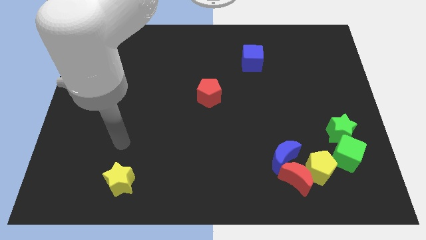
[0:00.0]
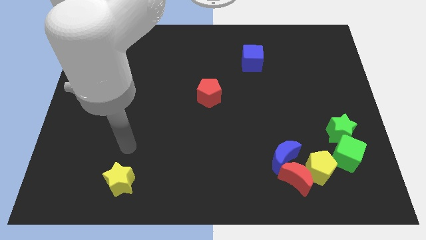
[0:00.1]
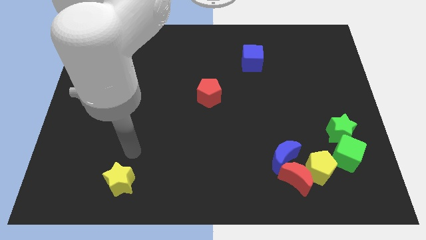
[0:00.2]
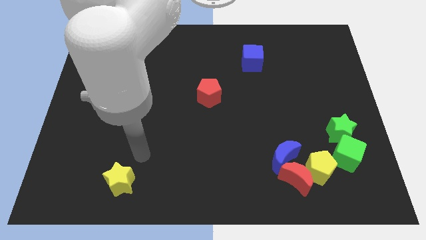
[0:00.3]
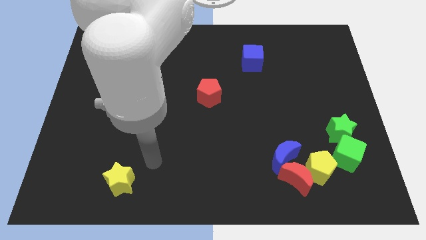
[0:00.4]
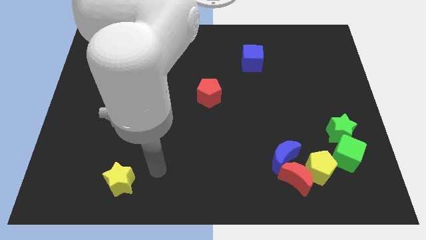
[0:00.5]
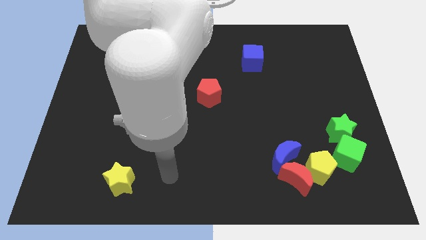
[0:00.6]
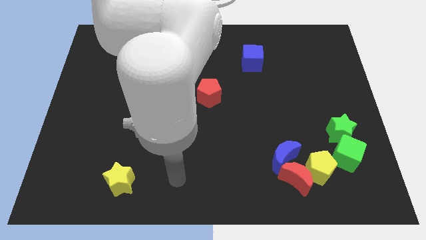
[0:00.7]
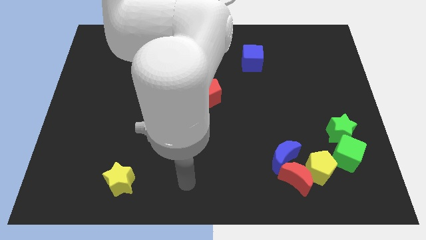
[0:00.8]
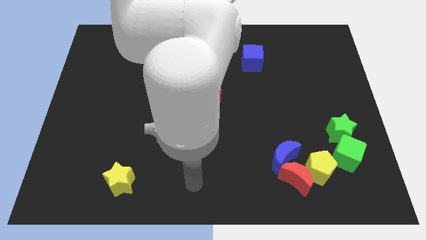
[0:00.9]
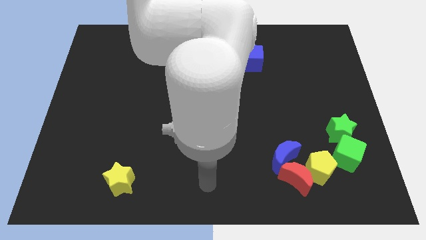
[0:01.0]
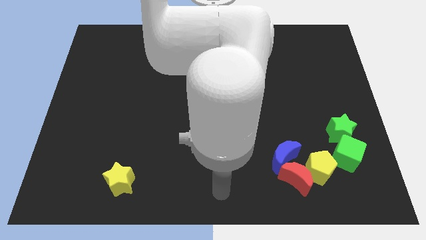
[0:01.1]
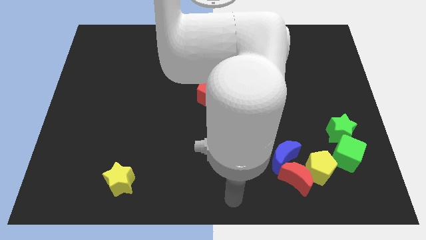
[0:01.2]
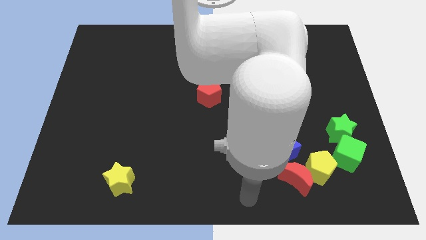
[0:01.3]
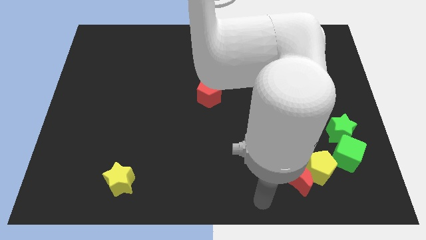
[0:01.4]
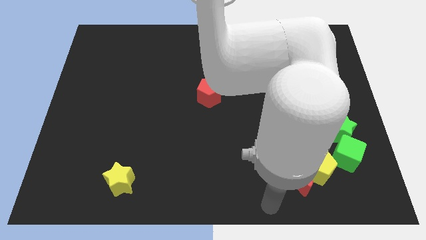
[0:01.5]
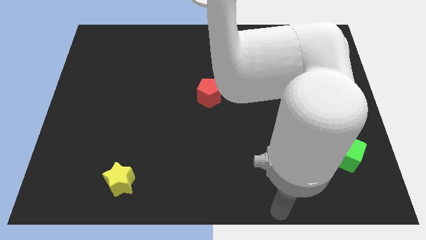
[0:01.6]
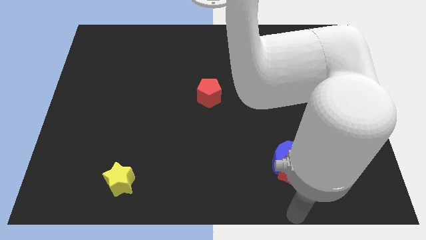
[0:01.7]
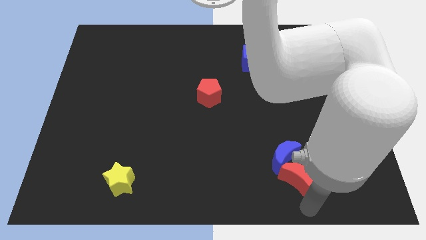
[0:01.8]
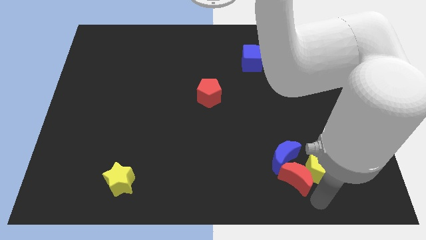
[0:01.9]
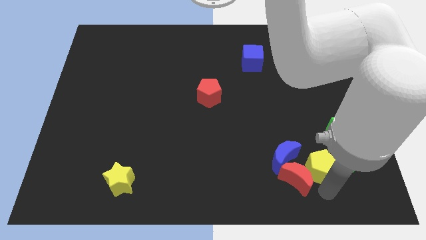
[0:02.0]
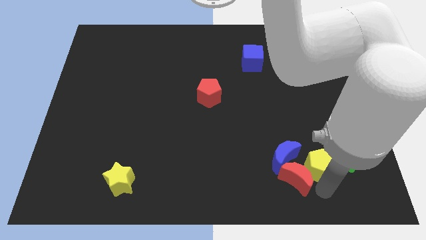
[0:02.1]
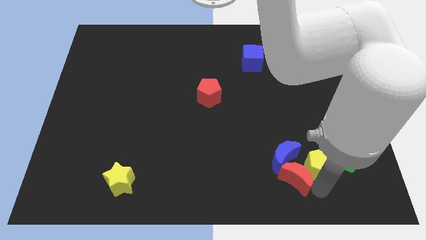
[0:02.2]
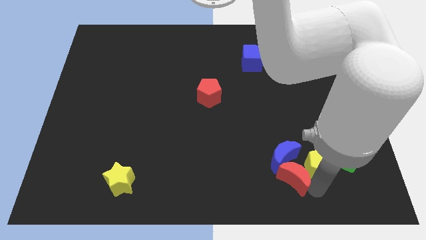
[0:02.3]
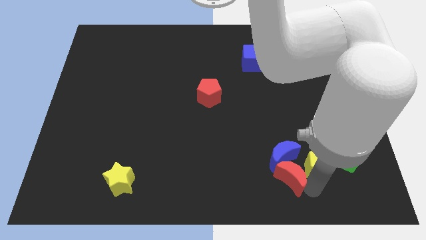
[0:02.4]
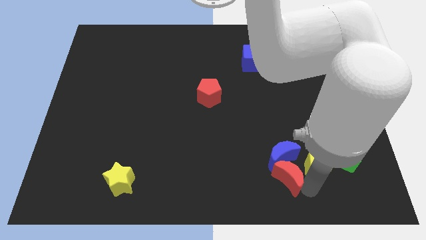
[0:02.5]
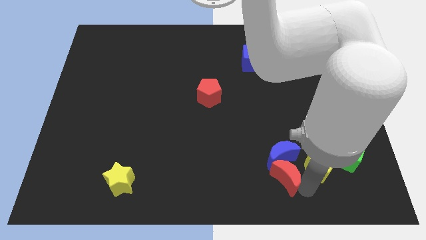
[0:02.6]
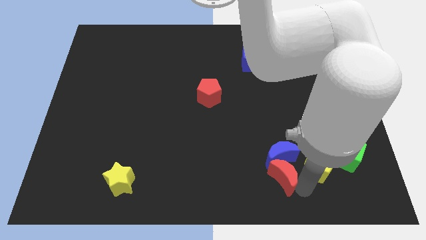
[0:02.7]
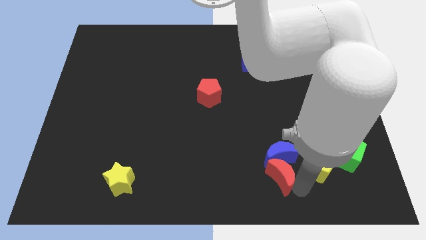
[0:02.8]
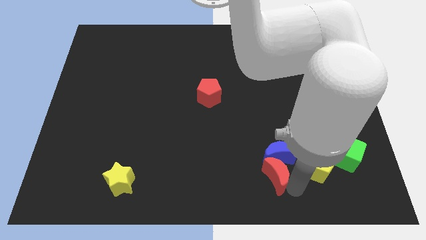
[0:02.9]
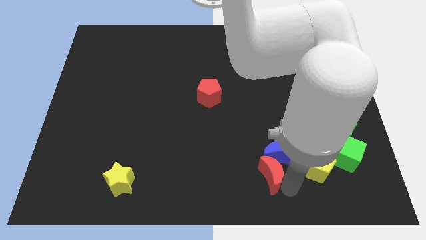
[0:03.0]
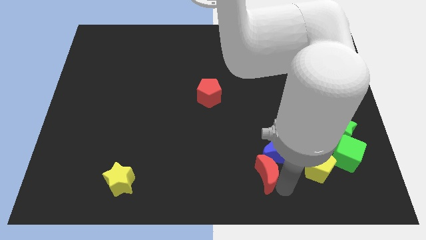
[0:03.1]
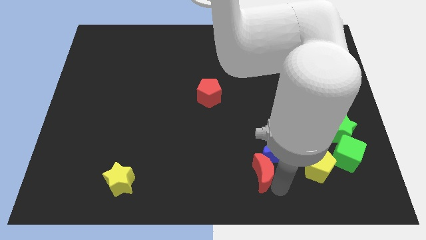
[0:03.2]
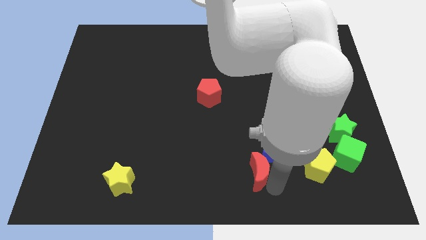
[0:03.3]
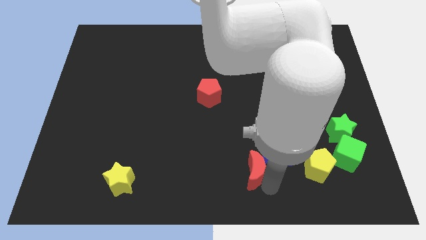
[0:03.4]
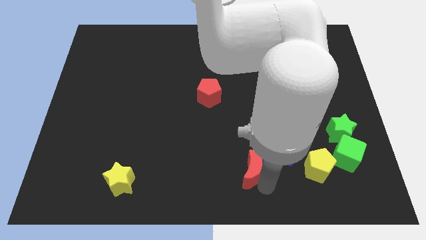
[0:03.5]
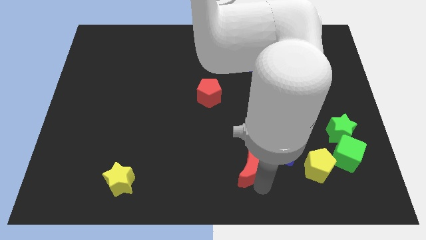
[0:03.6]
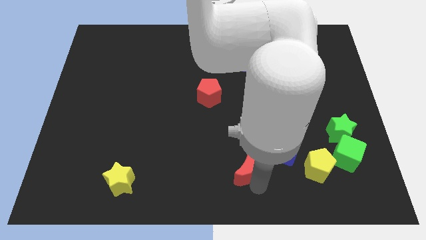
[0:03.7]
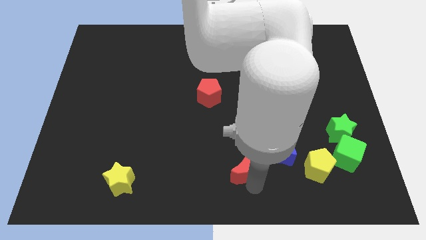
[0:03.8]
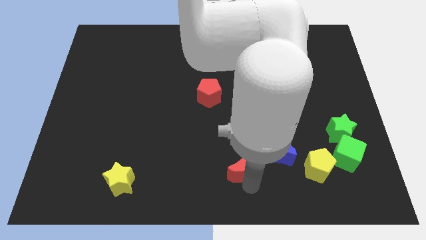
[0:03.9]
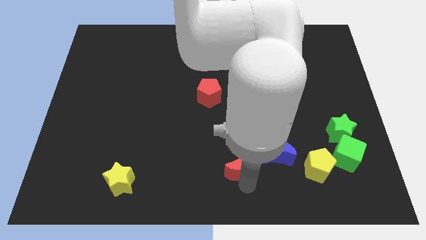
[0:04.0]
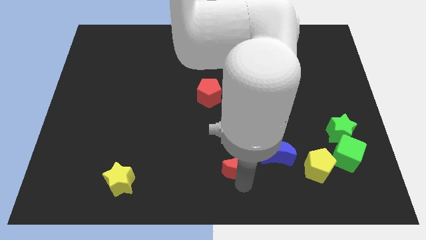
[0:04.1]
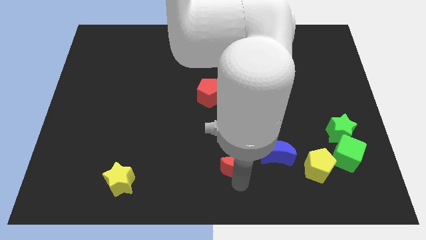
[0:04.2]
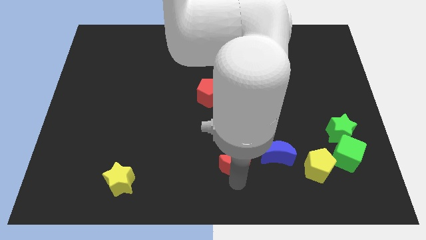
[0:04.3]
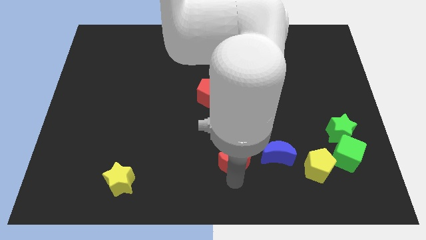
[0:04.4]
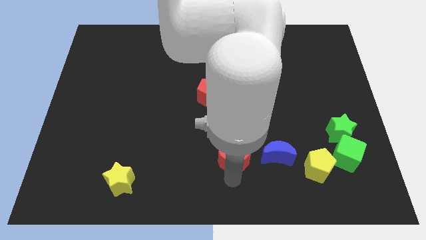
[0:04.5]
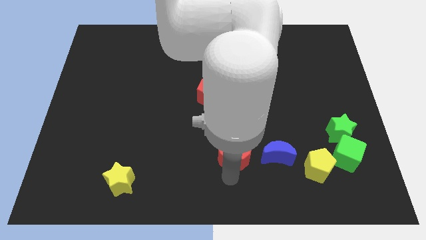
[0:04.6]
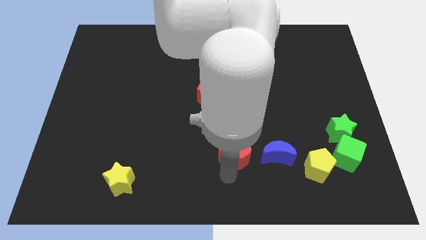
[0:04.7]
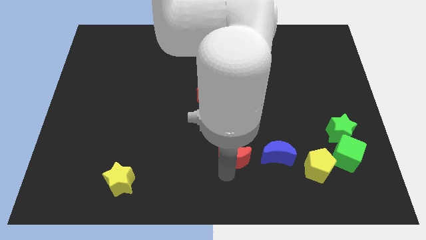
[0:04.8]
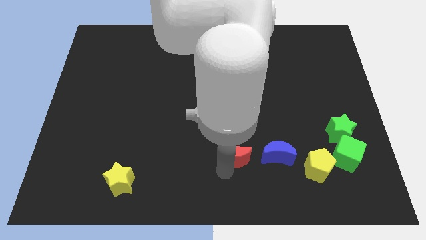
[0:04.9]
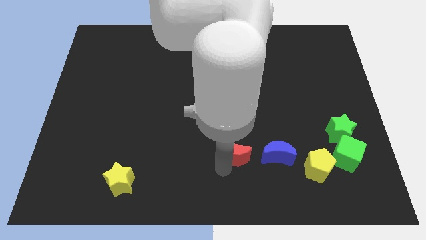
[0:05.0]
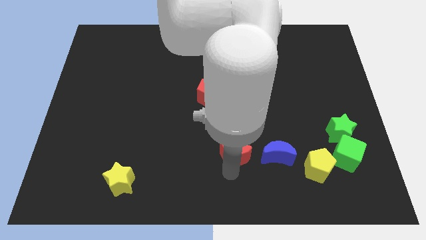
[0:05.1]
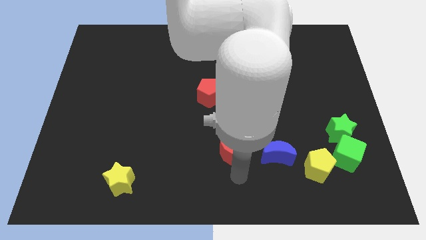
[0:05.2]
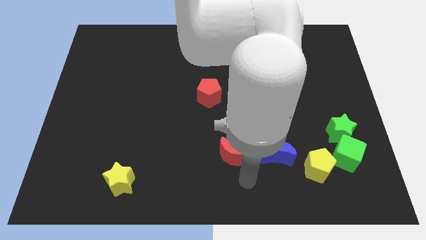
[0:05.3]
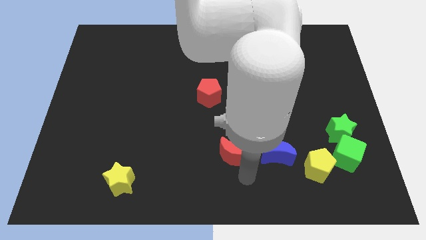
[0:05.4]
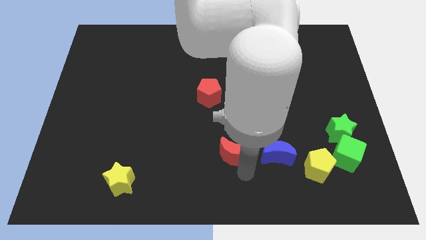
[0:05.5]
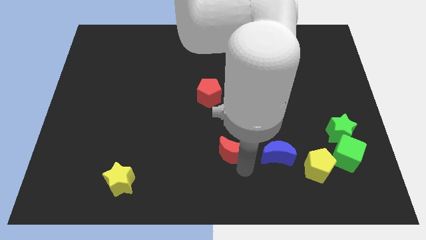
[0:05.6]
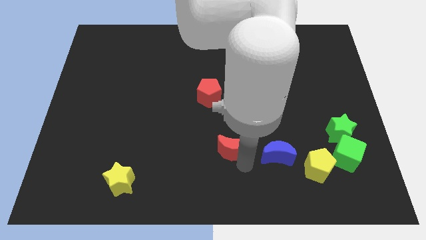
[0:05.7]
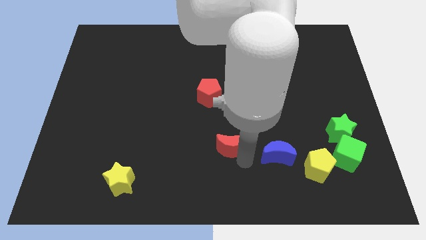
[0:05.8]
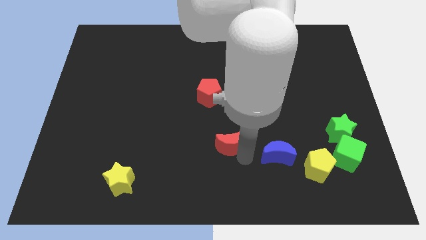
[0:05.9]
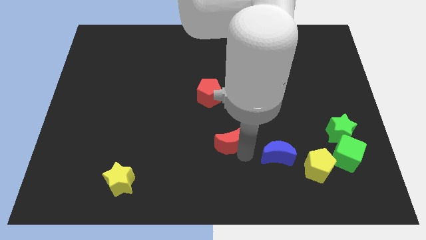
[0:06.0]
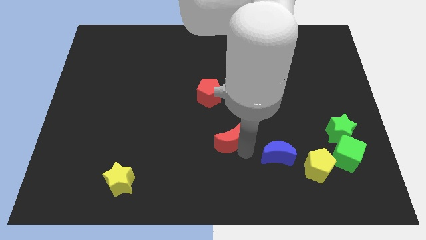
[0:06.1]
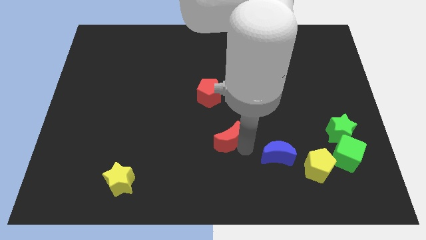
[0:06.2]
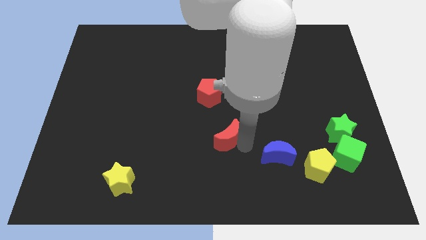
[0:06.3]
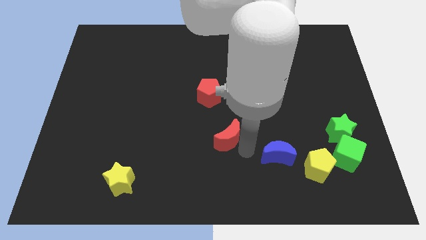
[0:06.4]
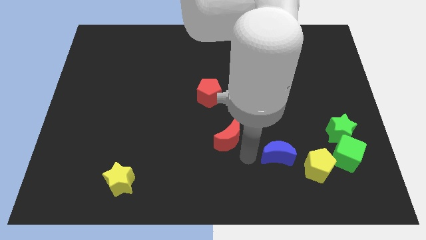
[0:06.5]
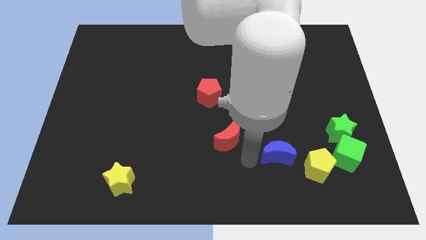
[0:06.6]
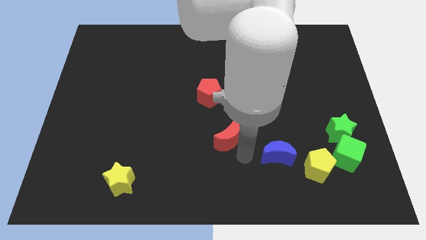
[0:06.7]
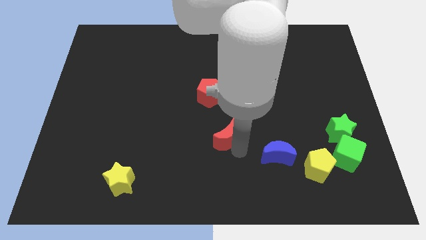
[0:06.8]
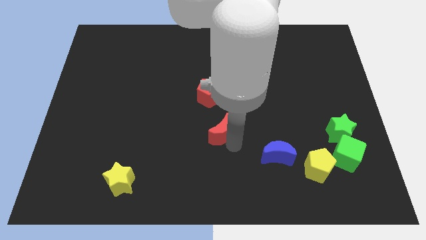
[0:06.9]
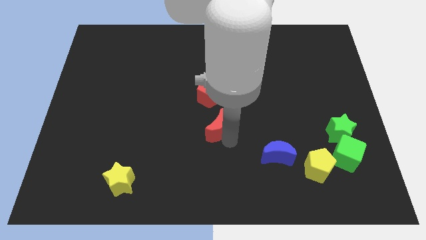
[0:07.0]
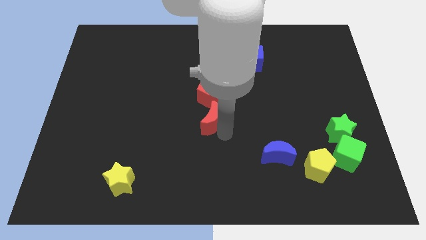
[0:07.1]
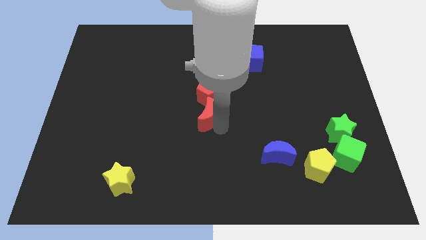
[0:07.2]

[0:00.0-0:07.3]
move the red moon diagonally down and to the left of the red pentagon
